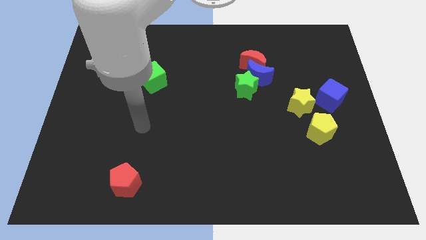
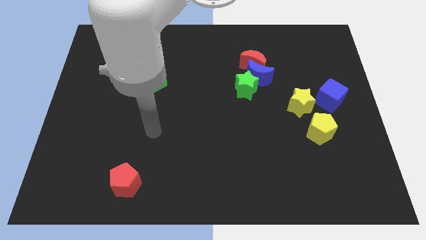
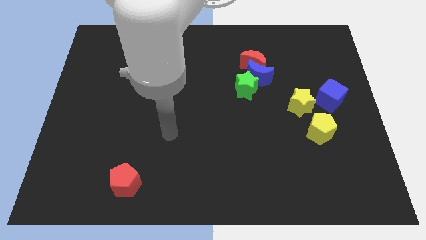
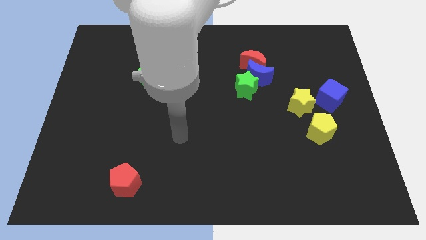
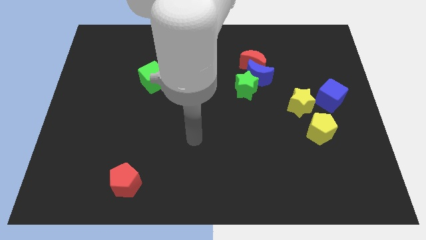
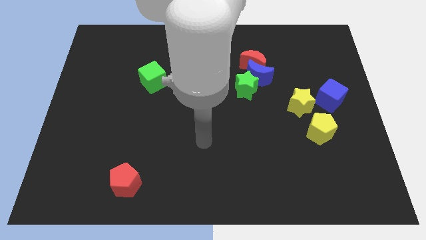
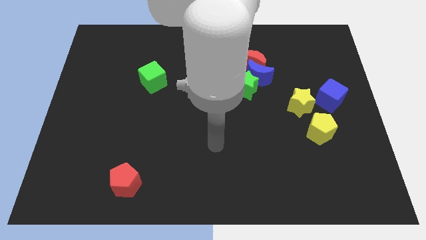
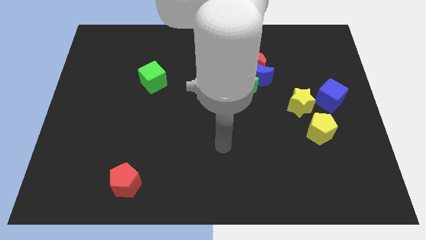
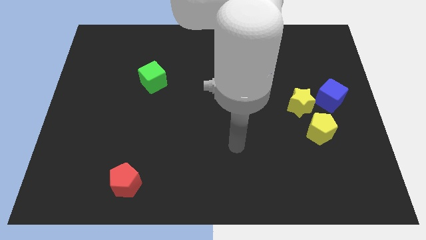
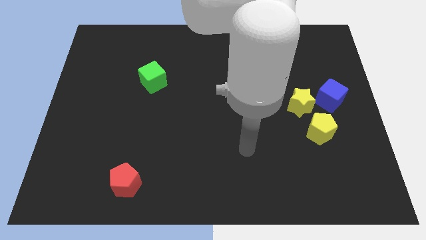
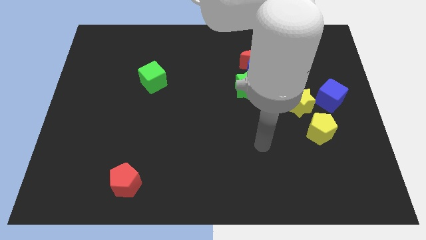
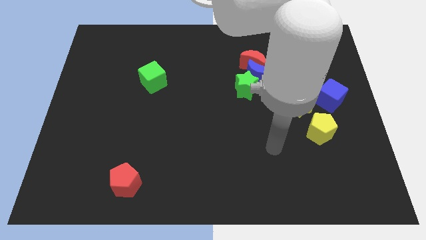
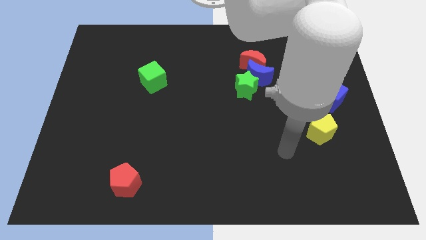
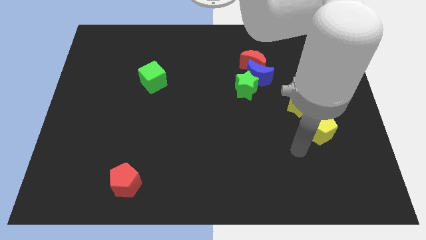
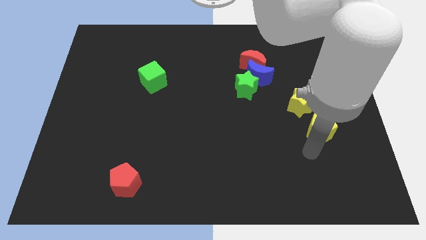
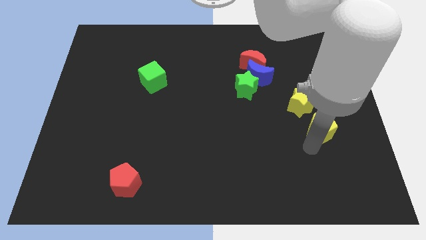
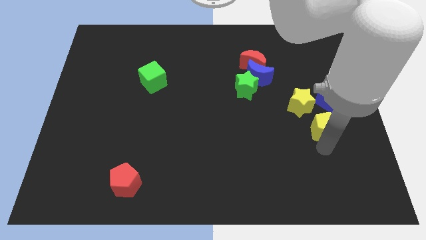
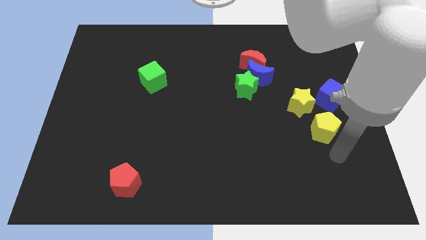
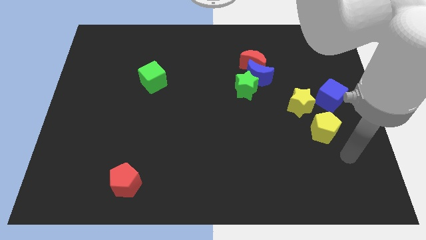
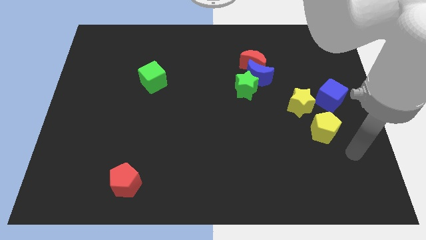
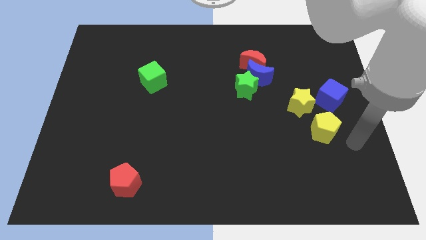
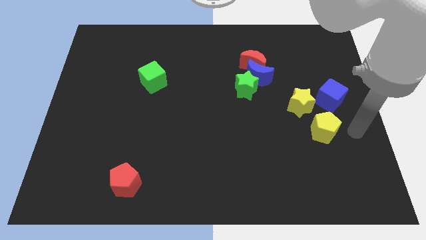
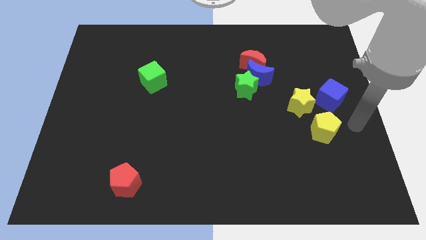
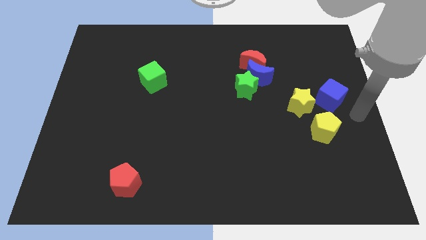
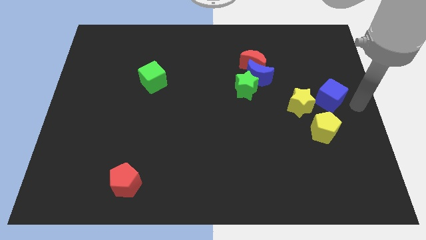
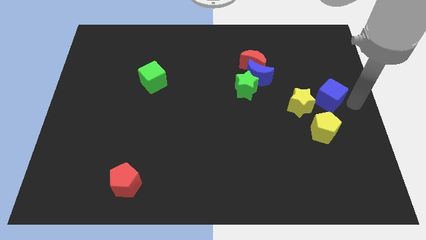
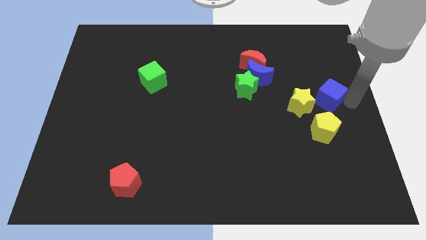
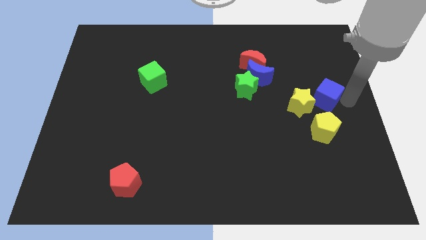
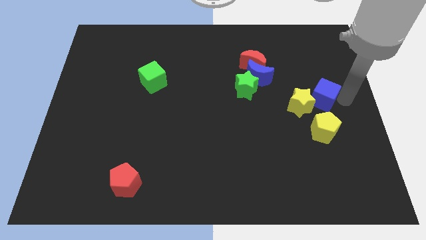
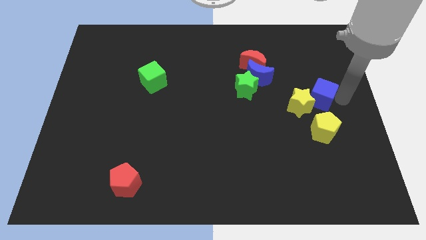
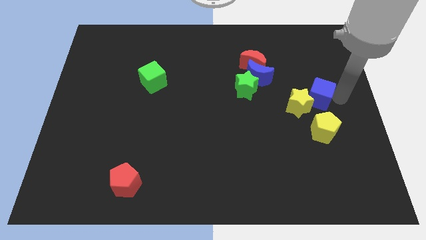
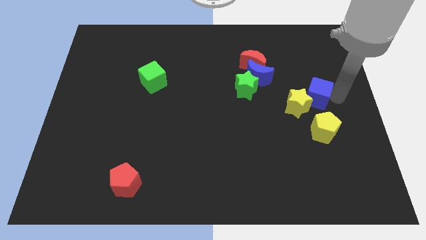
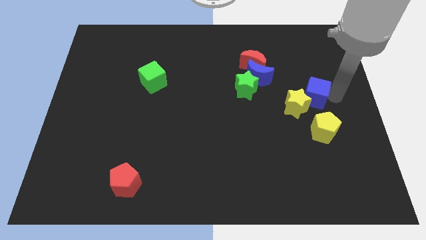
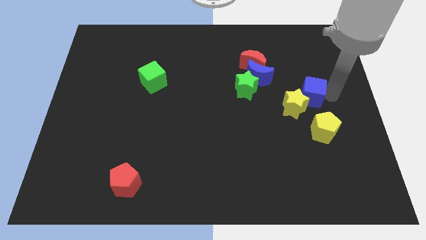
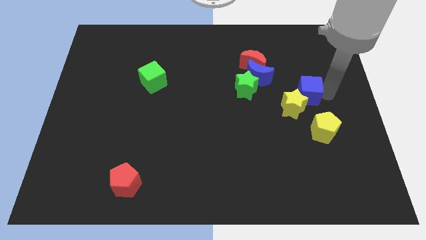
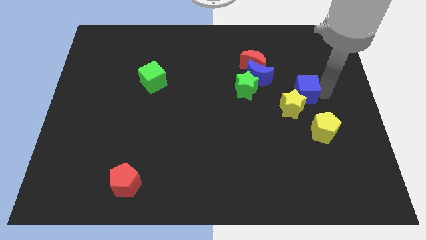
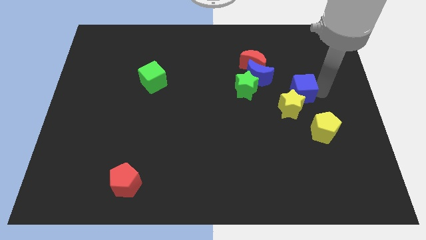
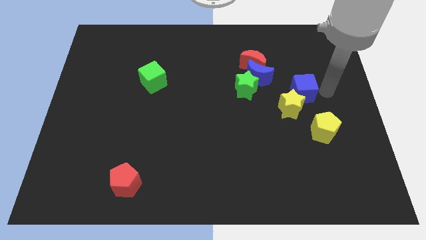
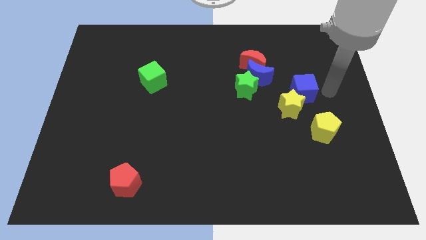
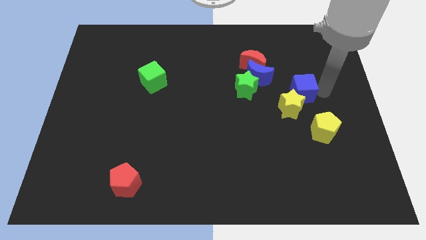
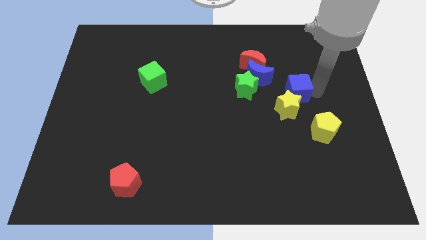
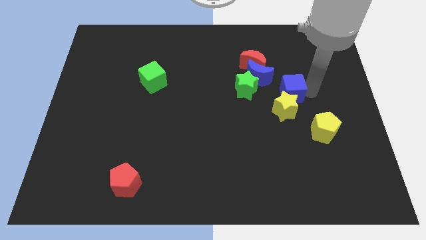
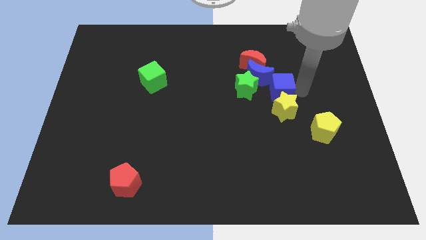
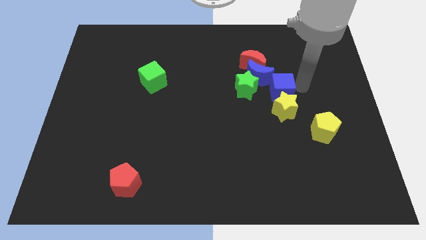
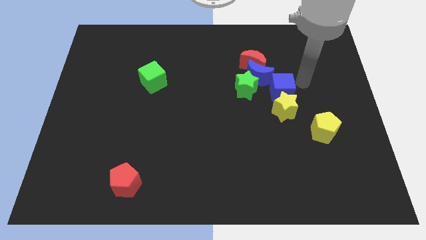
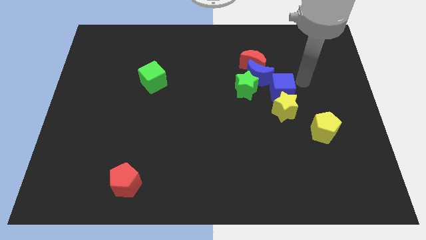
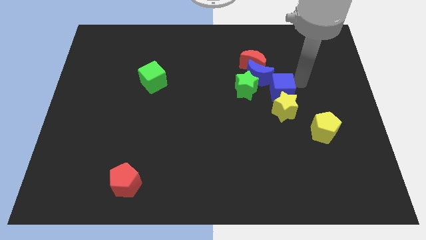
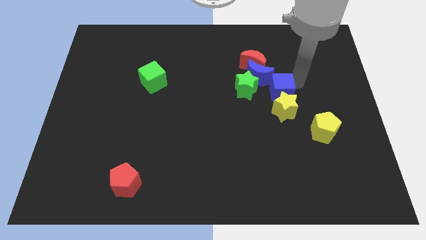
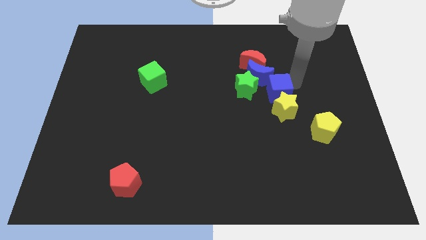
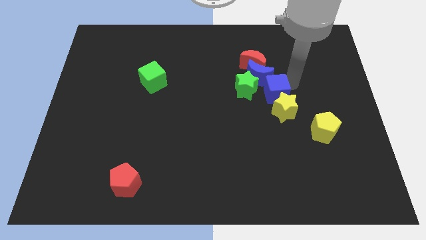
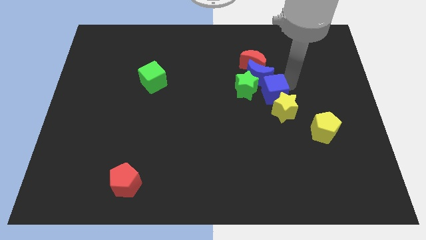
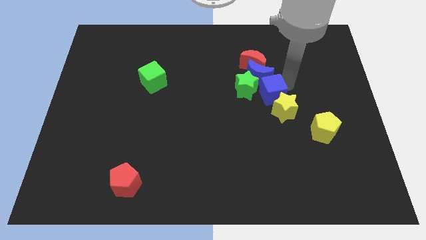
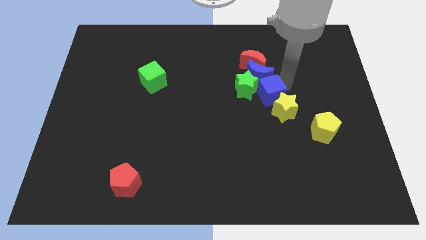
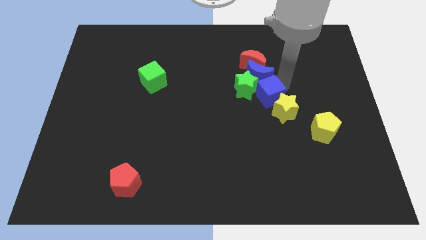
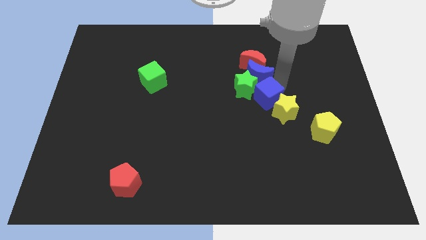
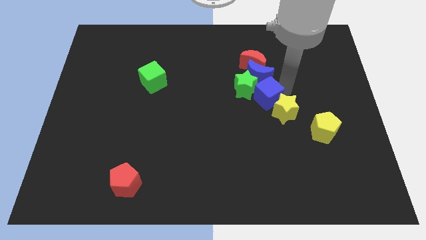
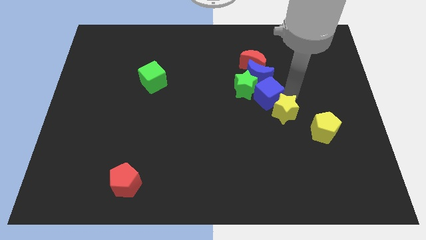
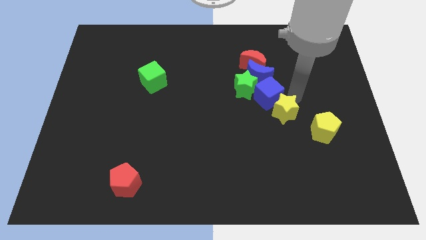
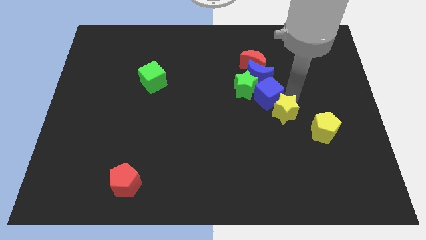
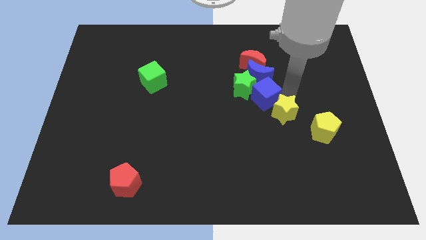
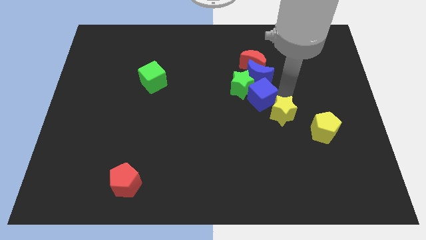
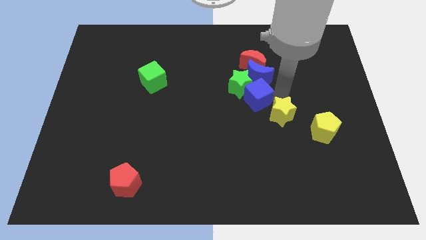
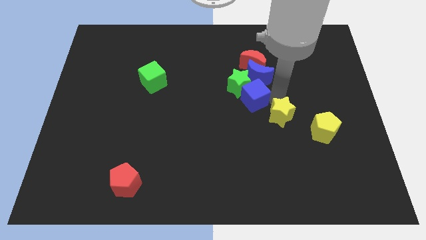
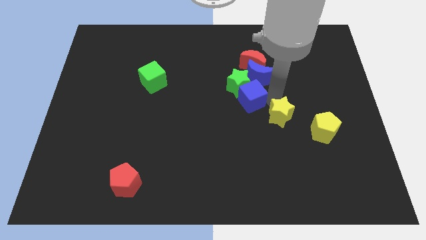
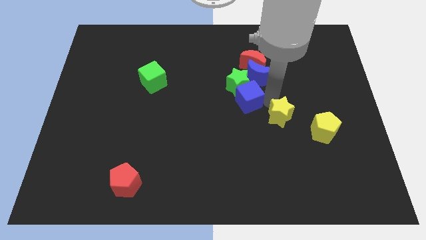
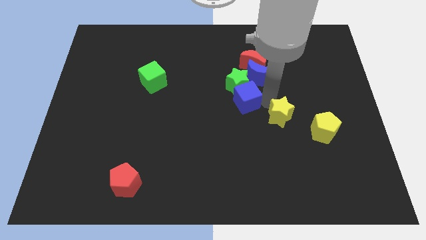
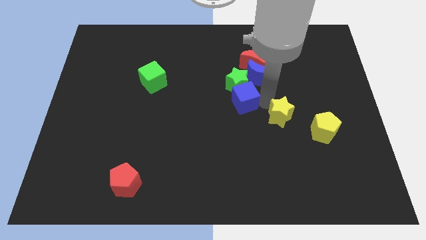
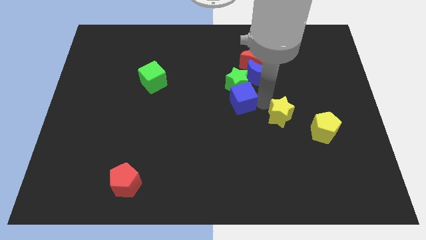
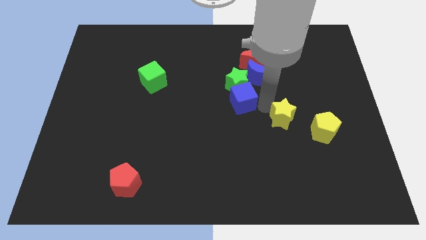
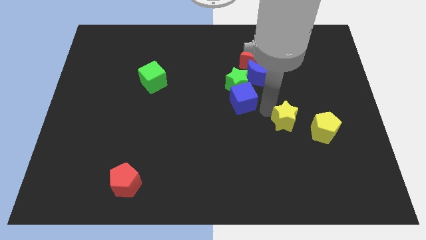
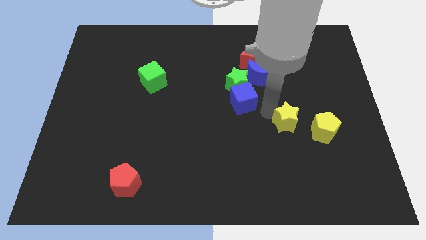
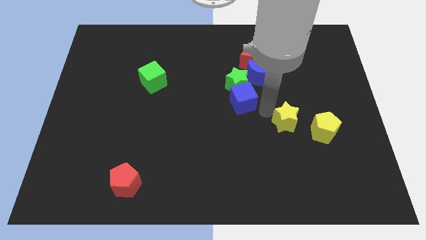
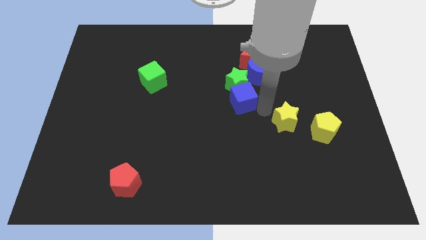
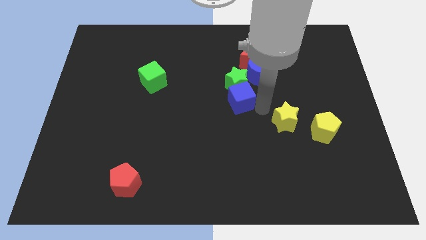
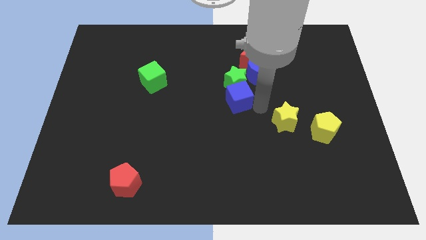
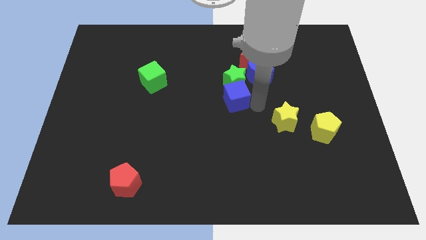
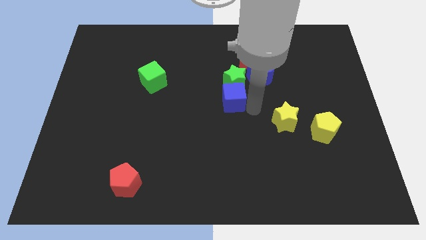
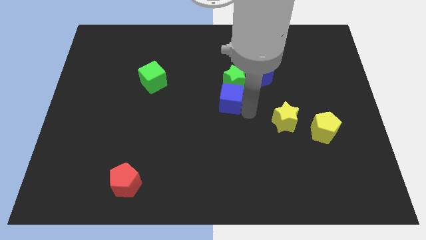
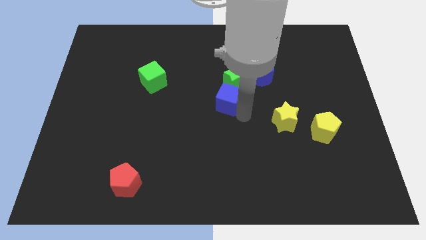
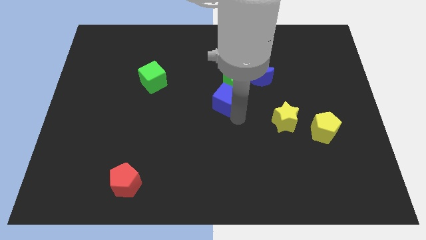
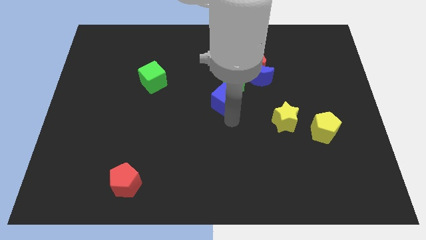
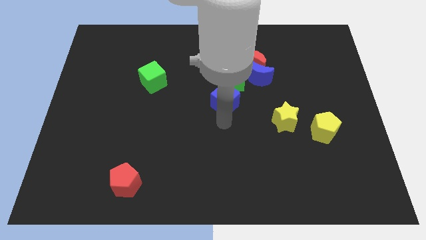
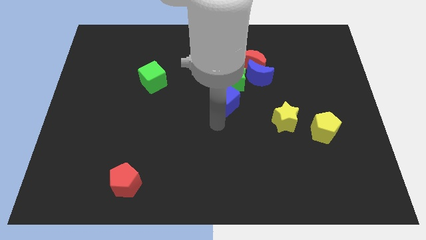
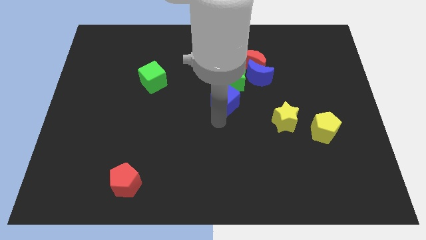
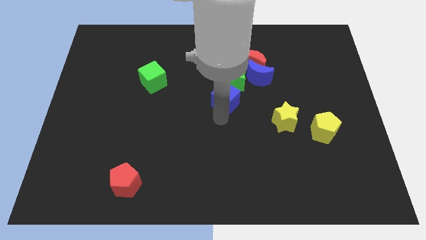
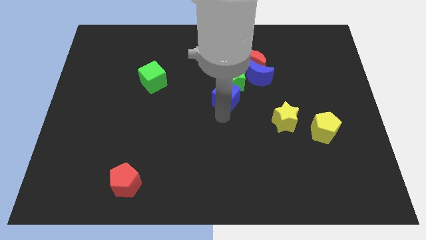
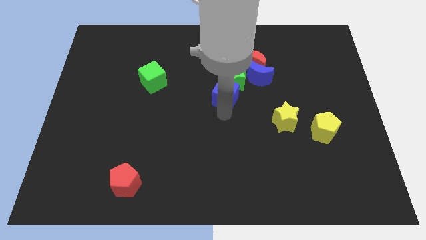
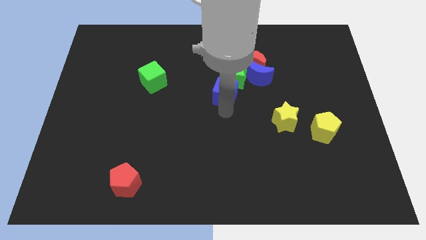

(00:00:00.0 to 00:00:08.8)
move the blue cube to the bottom left of the red moon
